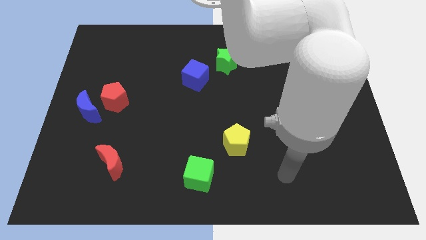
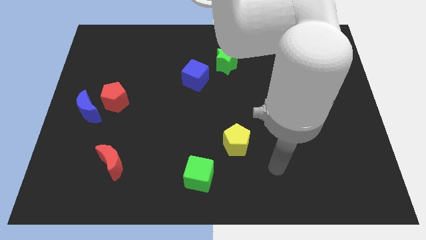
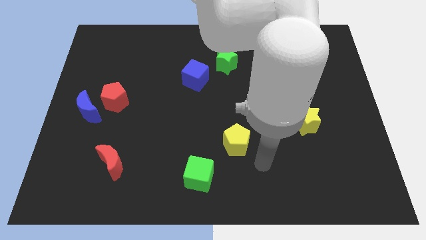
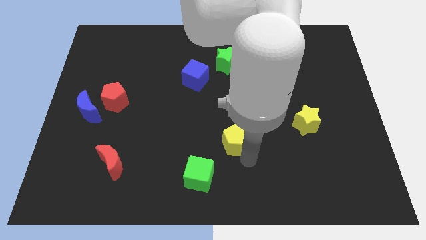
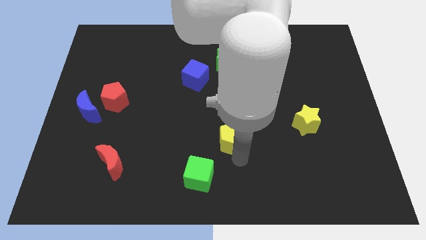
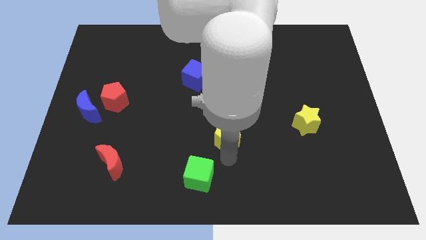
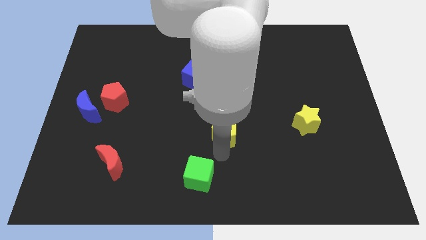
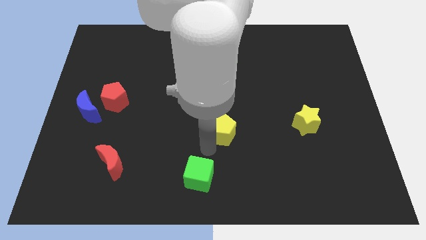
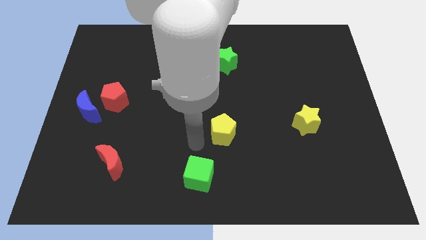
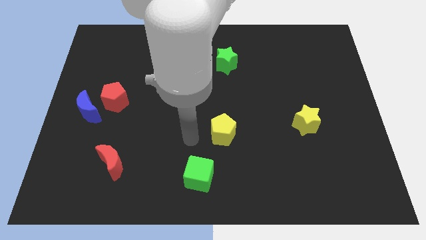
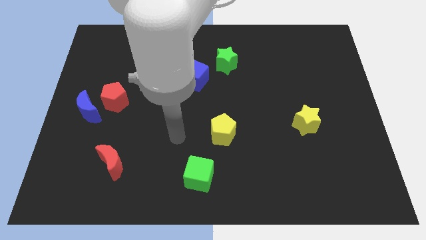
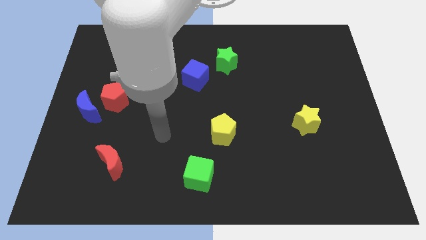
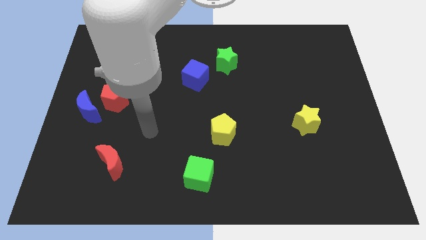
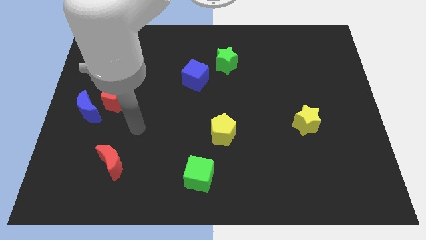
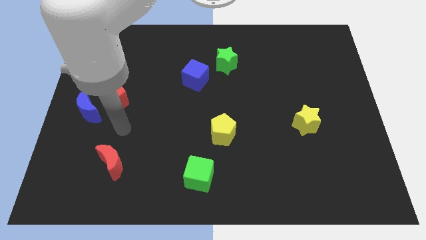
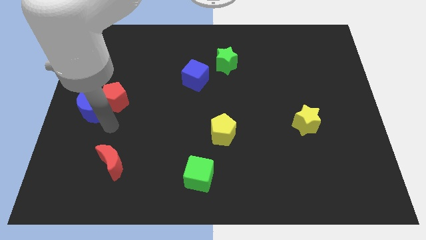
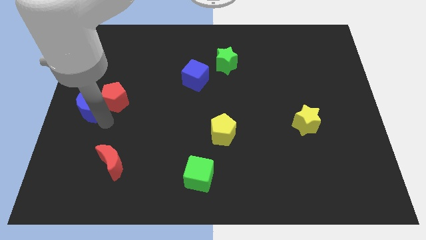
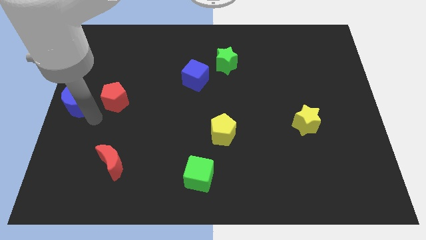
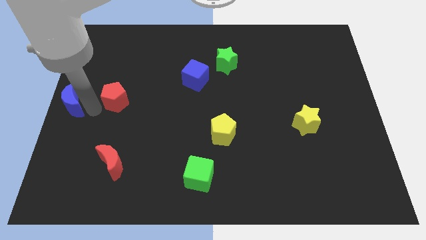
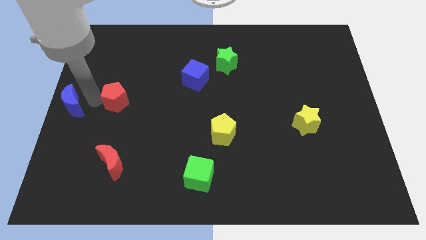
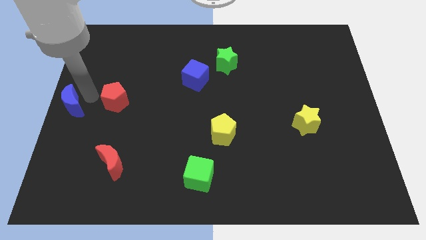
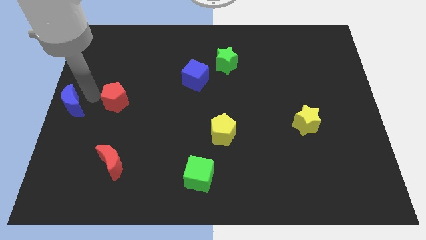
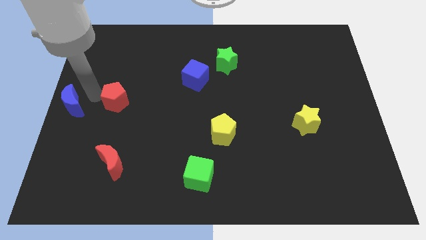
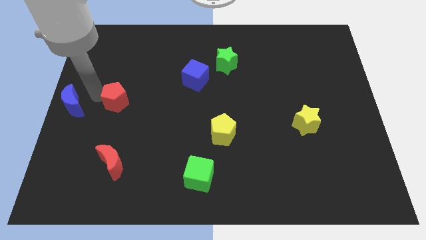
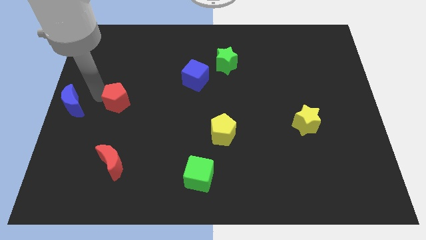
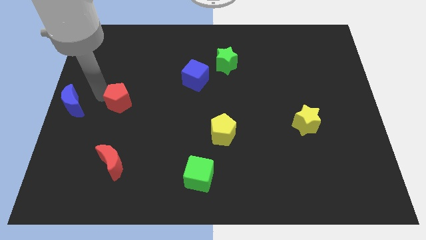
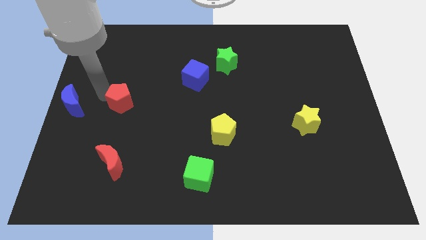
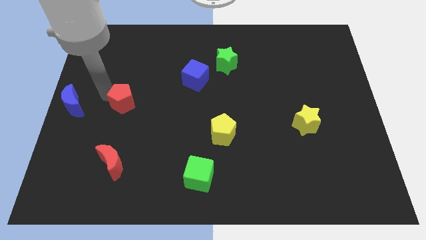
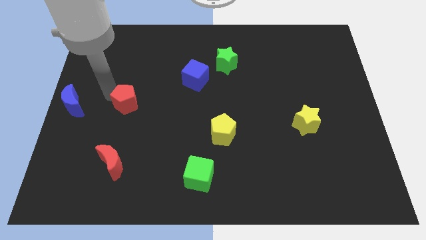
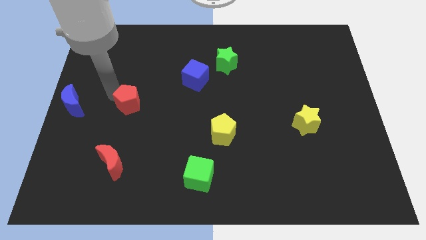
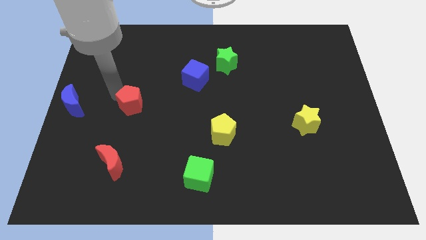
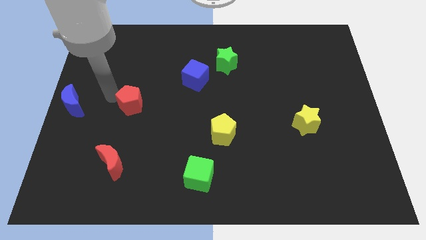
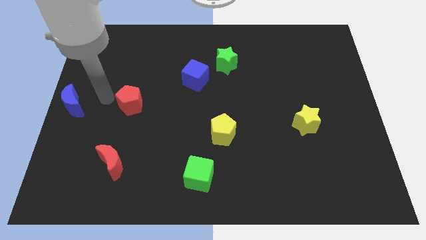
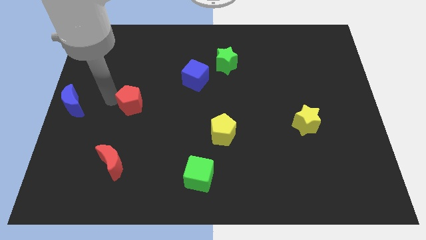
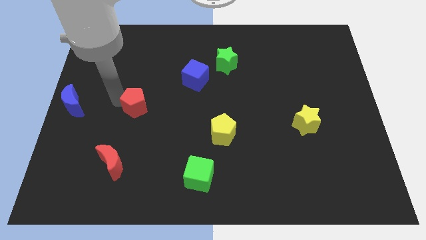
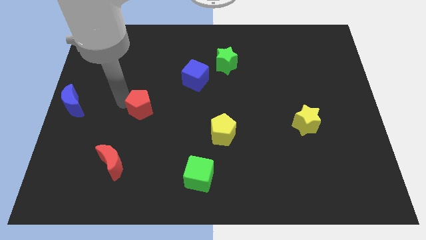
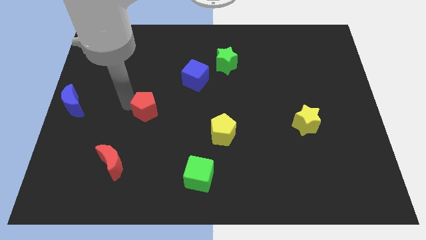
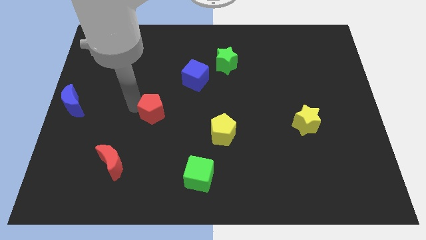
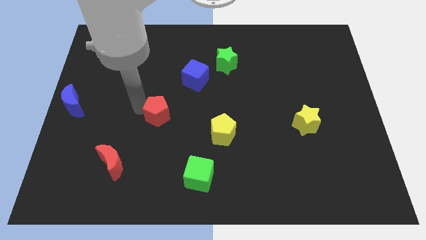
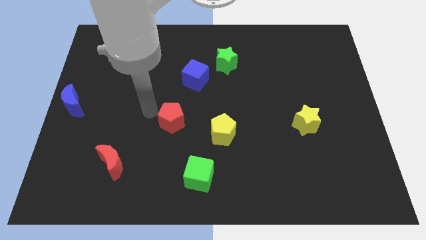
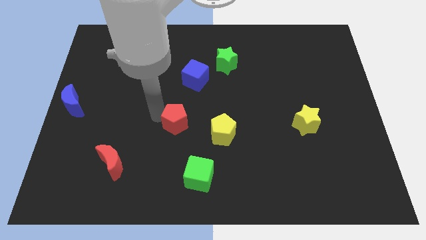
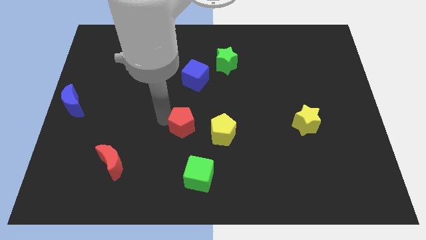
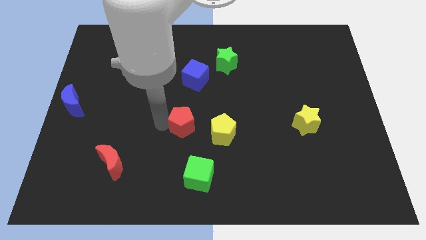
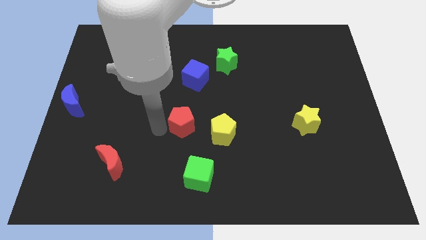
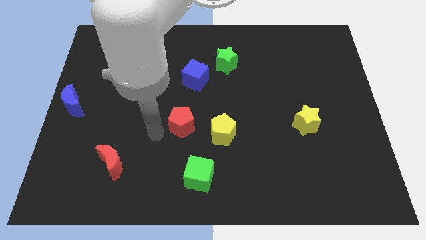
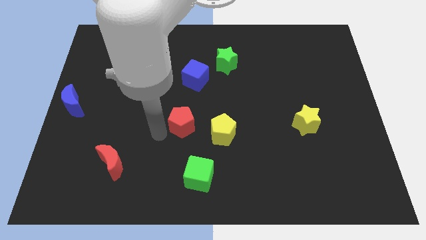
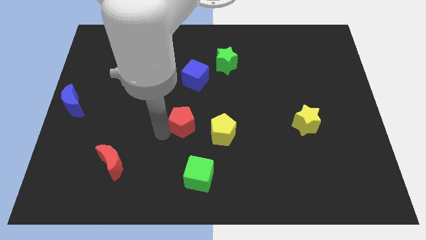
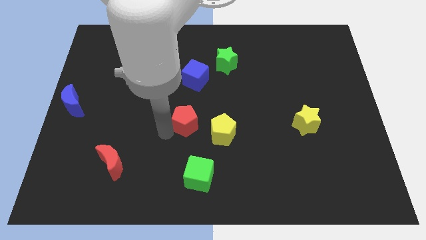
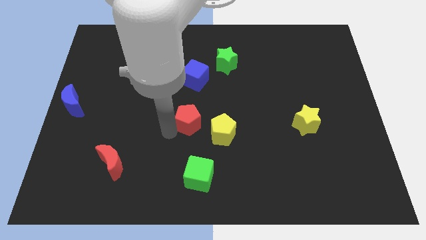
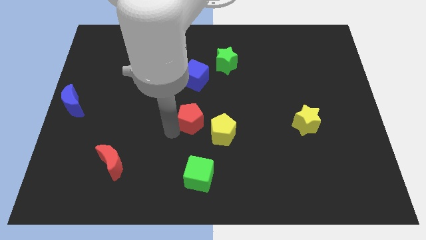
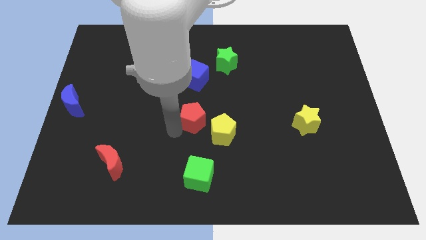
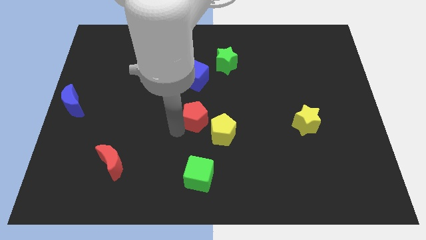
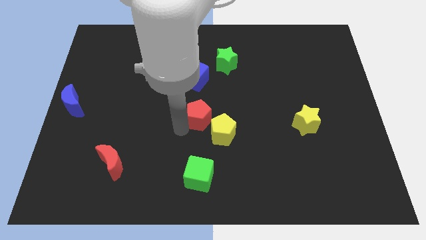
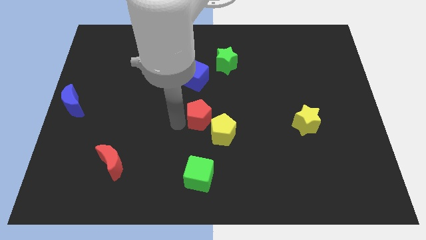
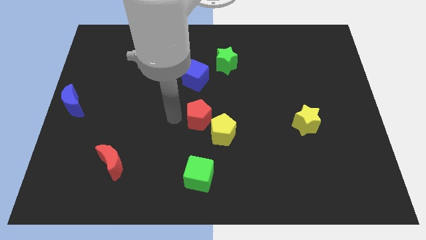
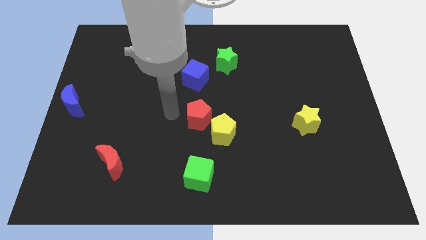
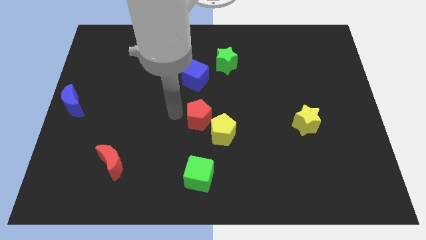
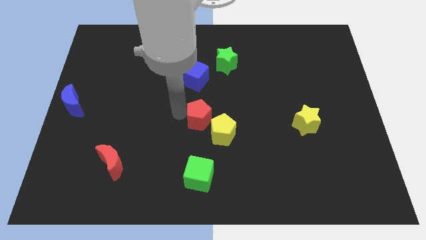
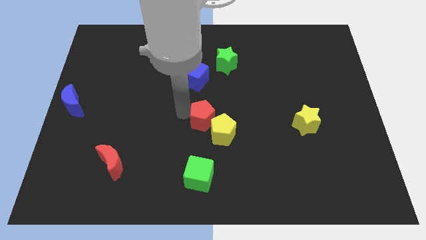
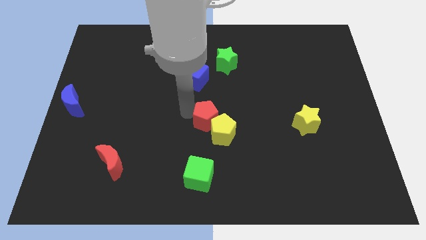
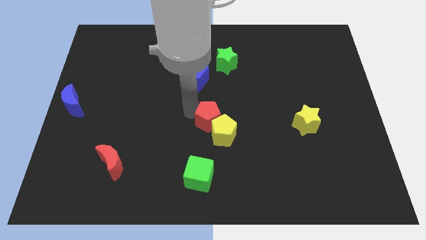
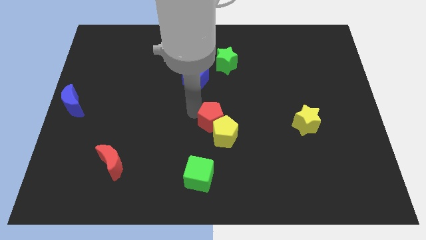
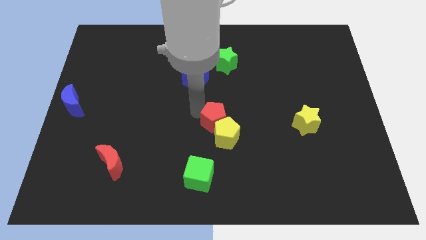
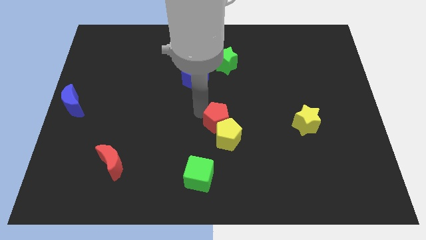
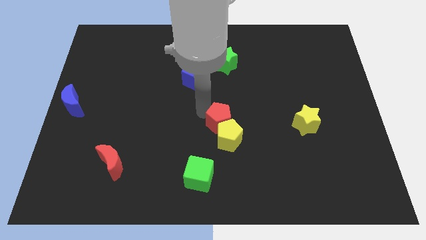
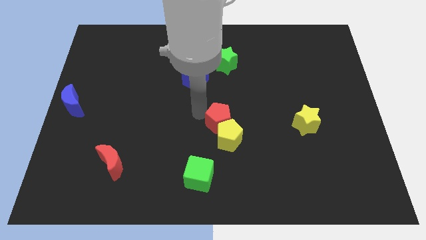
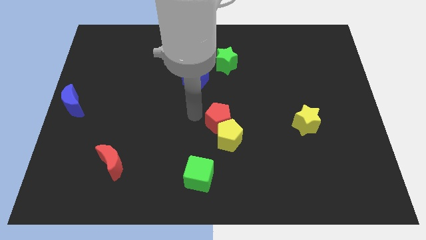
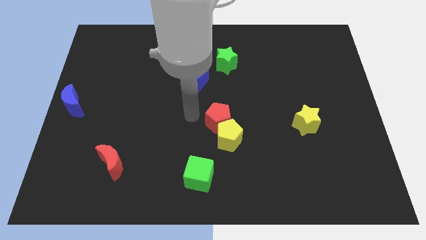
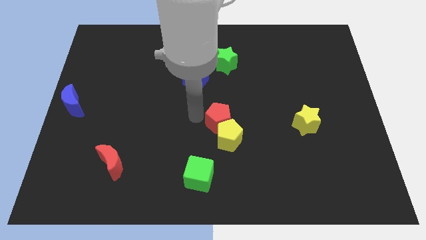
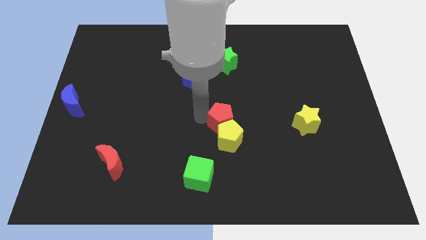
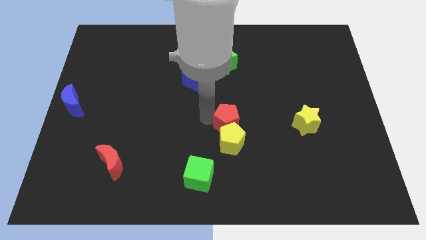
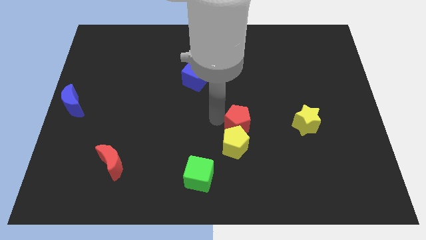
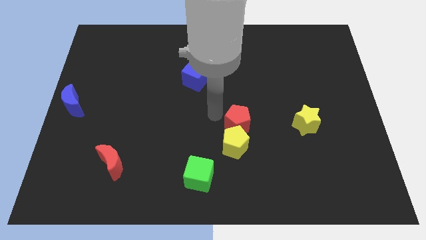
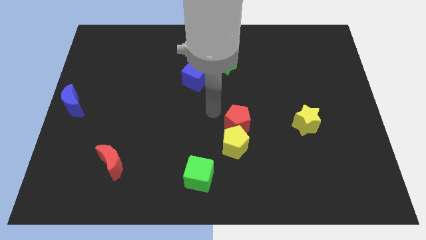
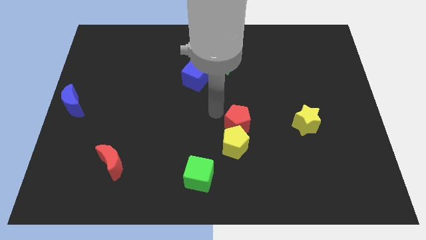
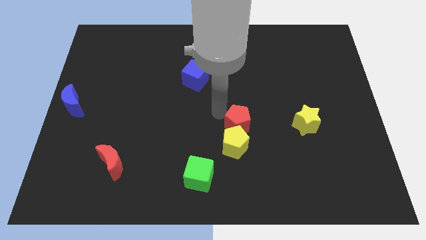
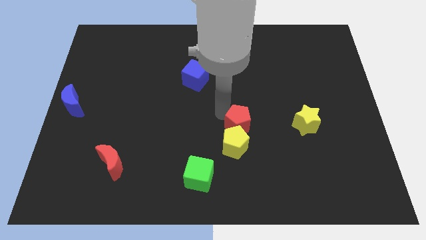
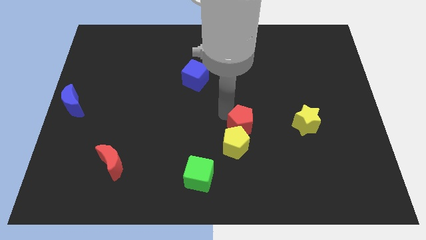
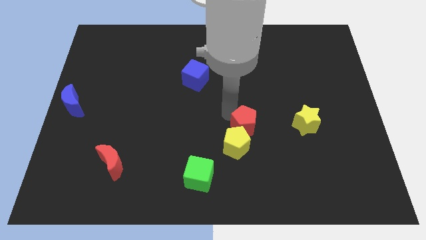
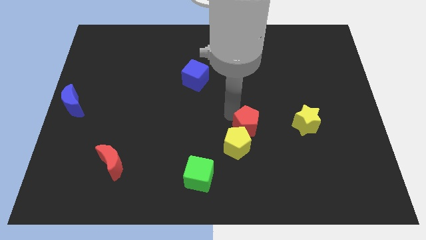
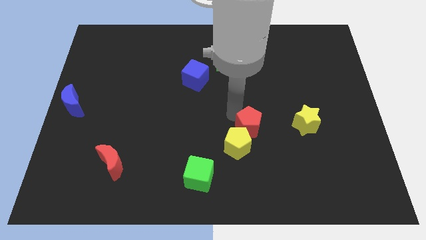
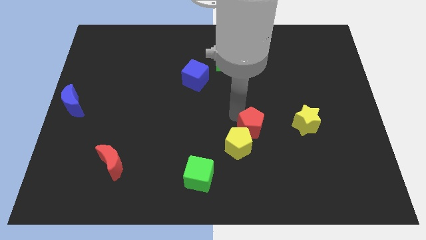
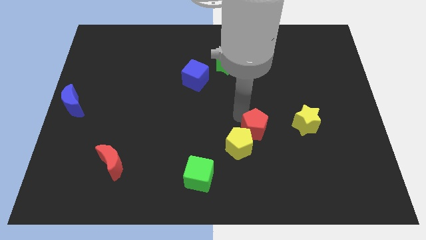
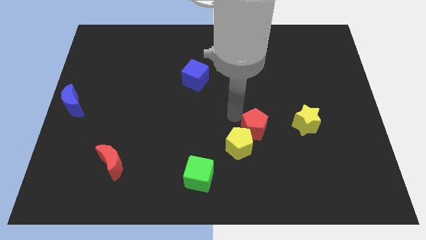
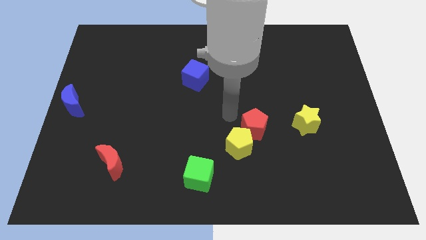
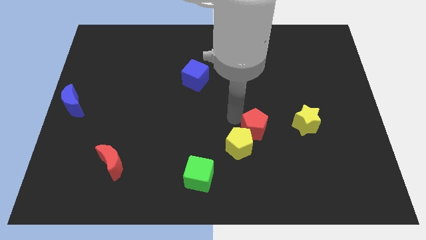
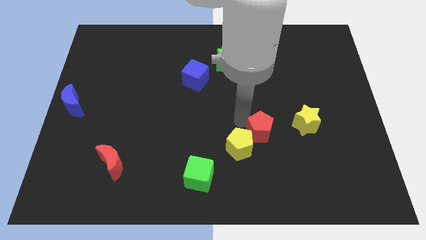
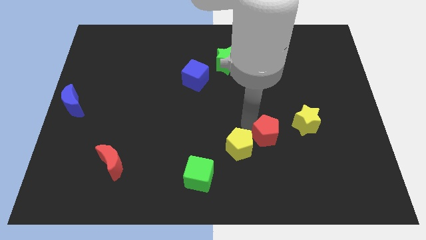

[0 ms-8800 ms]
slide the red pentagon to the bottom left of the yellow star
